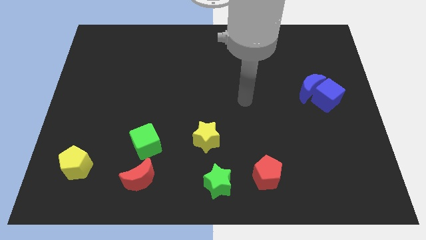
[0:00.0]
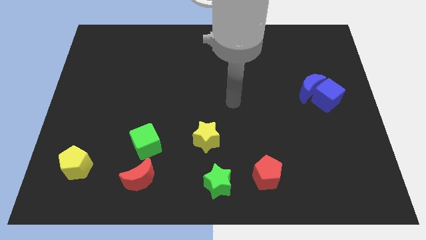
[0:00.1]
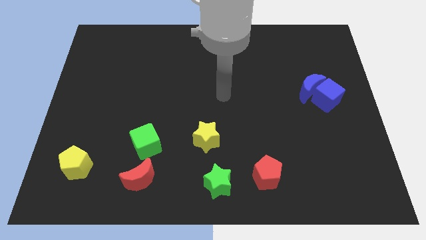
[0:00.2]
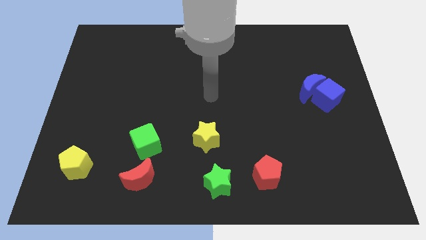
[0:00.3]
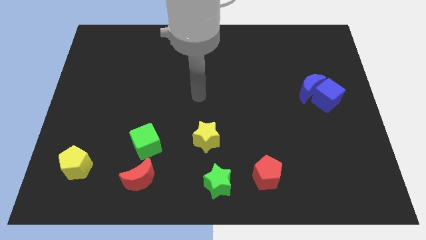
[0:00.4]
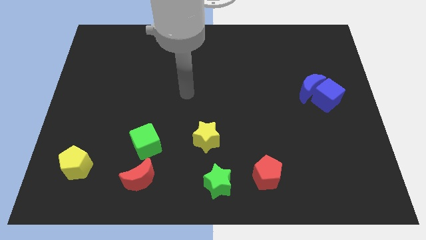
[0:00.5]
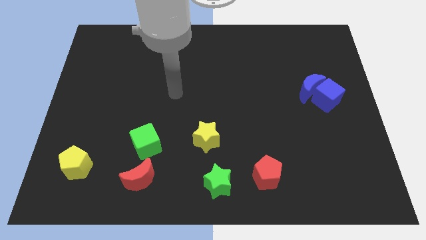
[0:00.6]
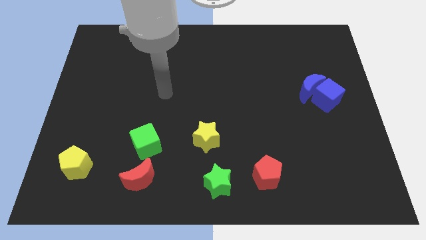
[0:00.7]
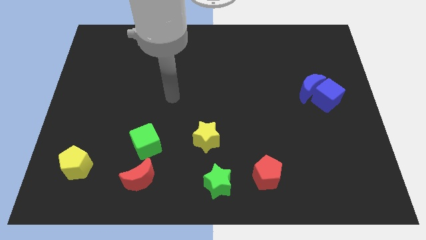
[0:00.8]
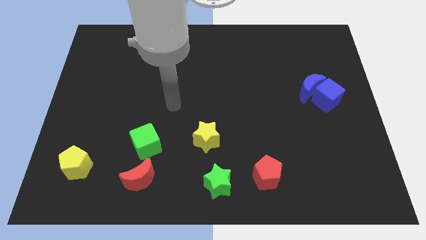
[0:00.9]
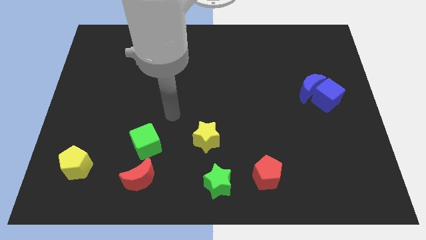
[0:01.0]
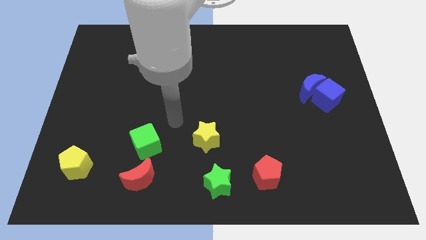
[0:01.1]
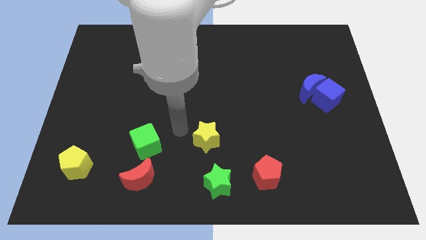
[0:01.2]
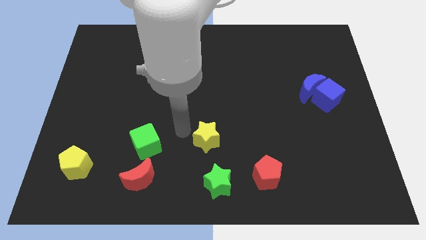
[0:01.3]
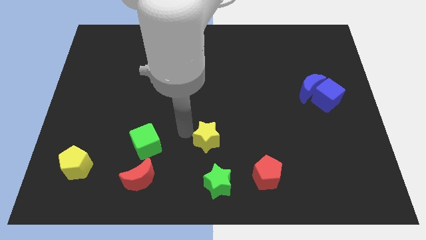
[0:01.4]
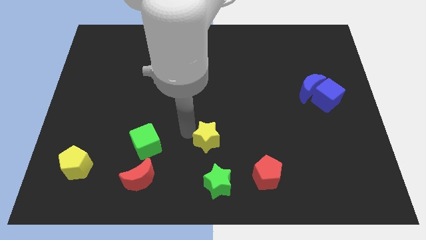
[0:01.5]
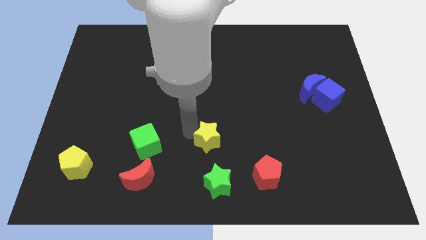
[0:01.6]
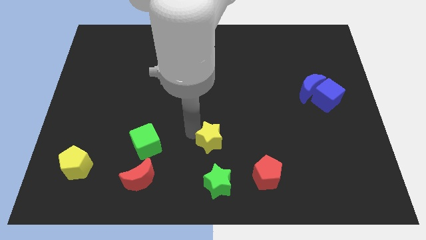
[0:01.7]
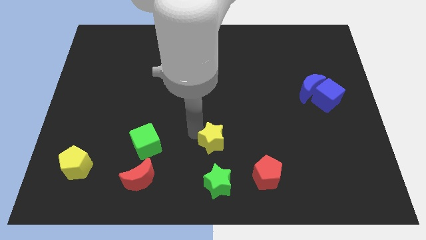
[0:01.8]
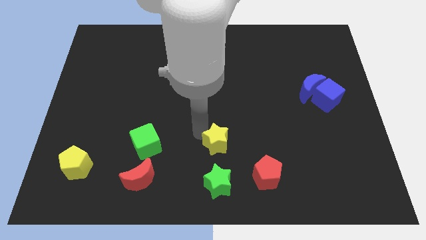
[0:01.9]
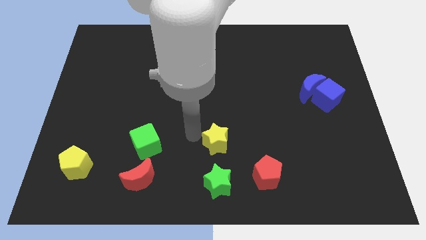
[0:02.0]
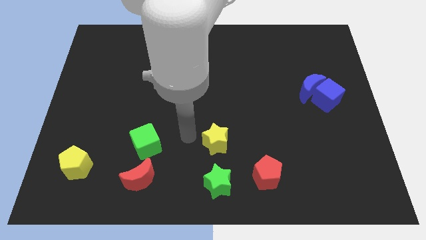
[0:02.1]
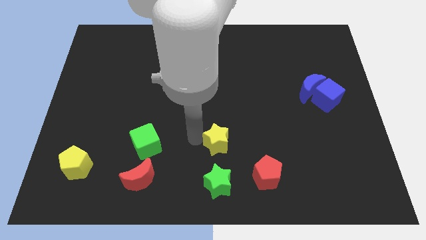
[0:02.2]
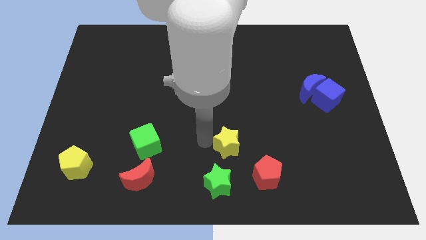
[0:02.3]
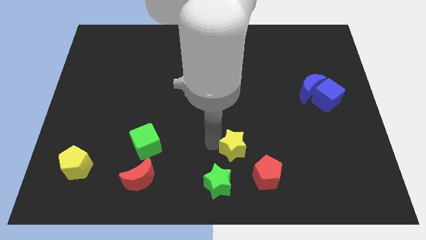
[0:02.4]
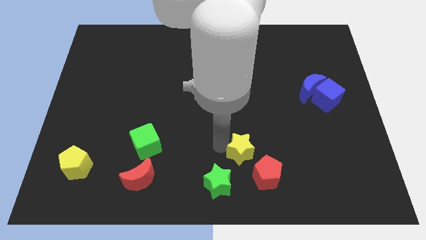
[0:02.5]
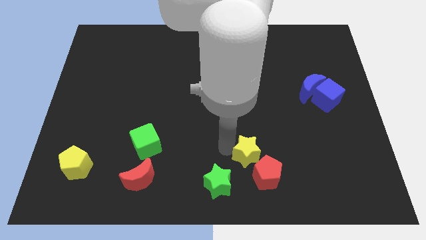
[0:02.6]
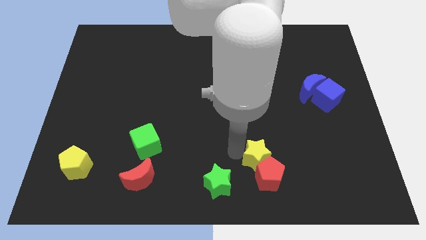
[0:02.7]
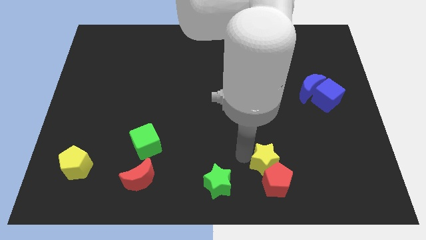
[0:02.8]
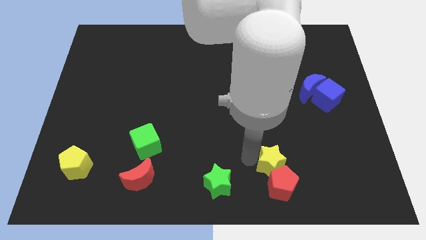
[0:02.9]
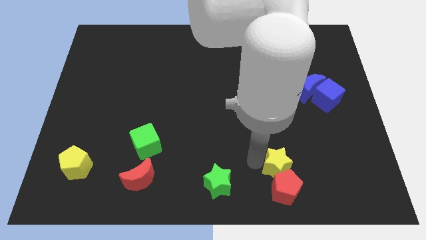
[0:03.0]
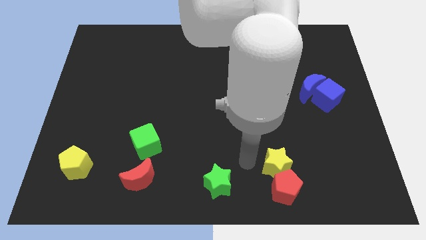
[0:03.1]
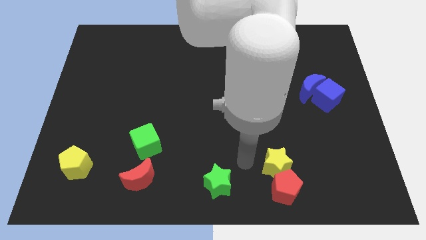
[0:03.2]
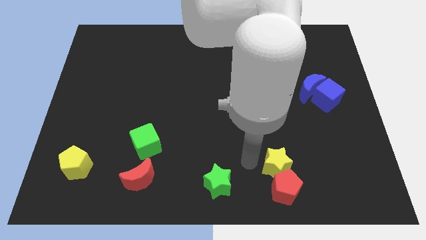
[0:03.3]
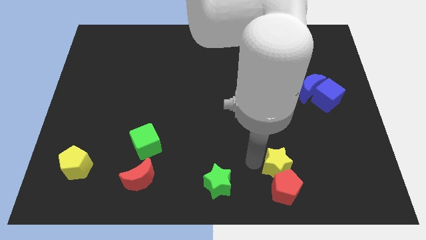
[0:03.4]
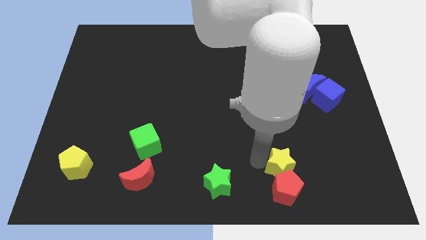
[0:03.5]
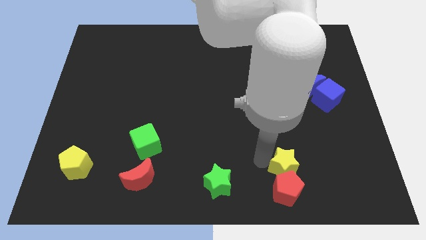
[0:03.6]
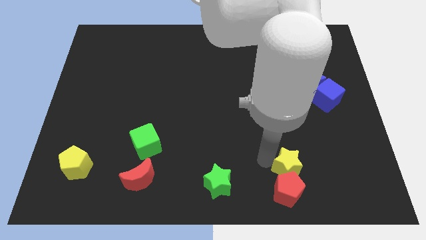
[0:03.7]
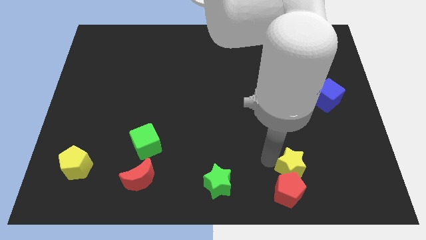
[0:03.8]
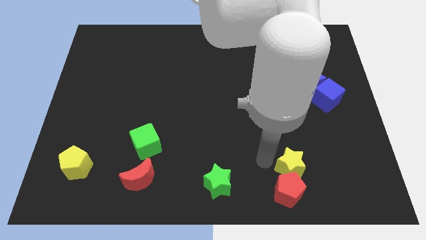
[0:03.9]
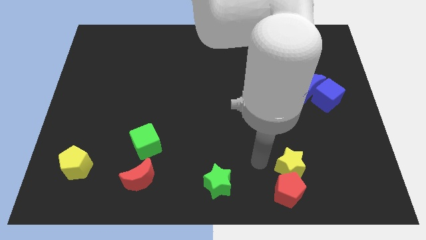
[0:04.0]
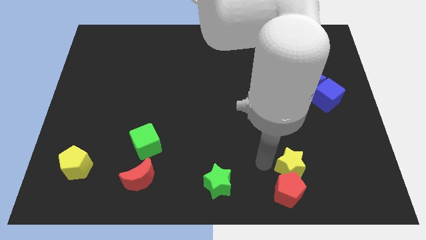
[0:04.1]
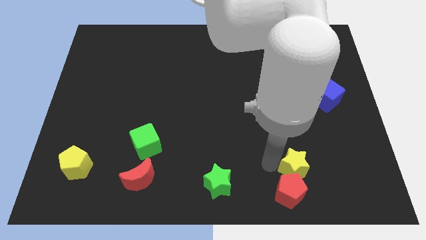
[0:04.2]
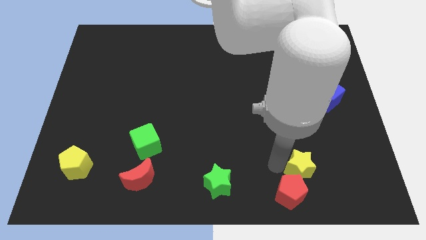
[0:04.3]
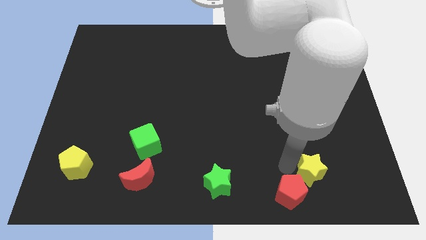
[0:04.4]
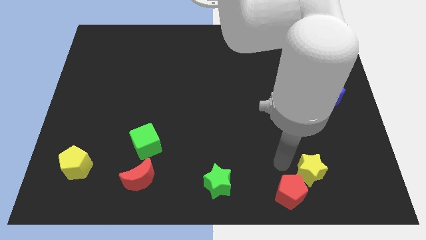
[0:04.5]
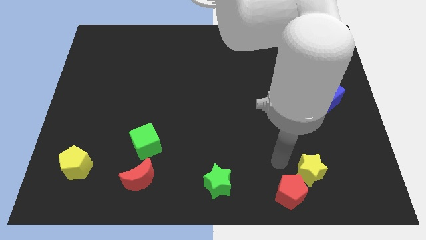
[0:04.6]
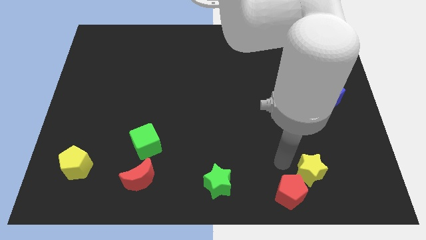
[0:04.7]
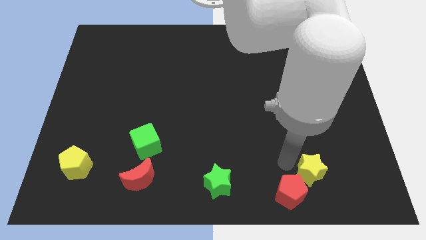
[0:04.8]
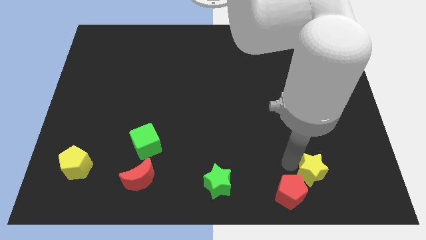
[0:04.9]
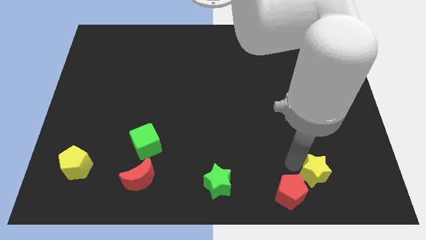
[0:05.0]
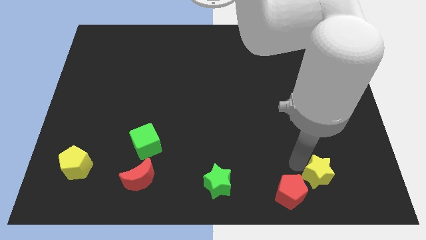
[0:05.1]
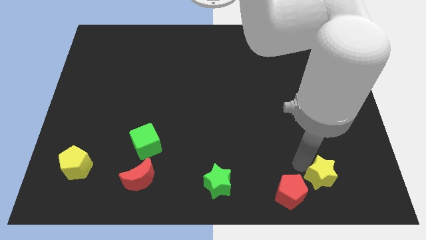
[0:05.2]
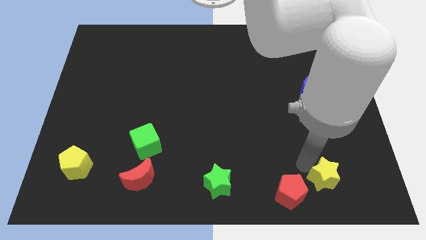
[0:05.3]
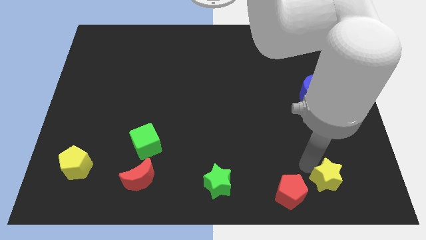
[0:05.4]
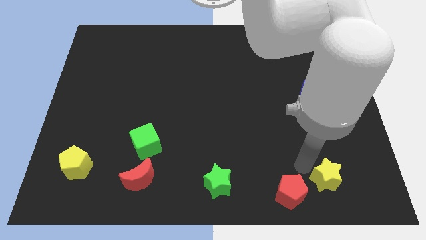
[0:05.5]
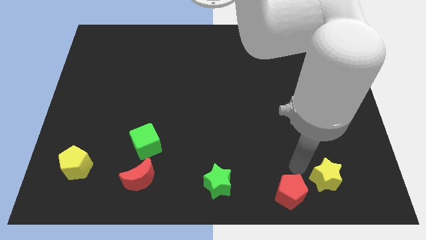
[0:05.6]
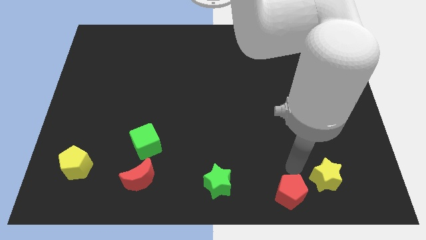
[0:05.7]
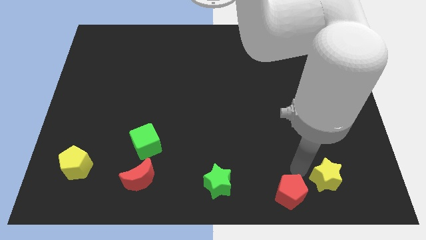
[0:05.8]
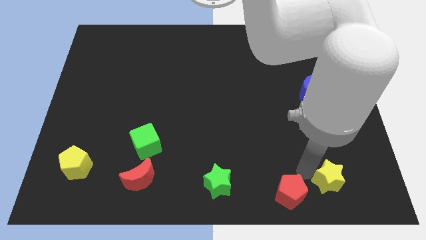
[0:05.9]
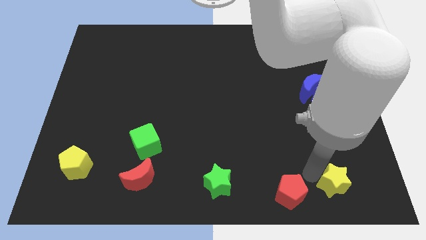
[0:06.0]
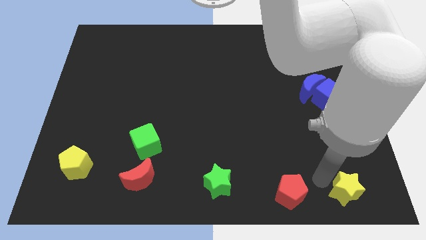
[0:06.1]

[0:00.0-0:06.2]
push the yellow star to the lower right corner
